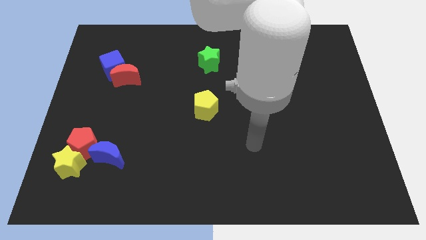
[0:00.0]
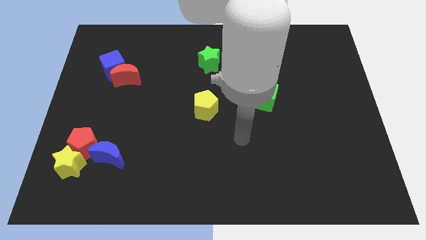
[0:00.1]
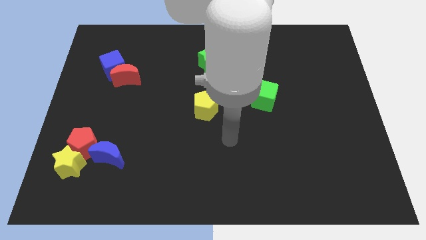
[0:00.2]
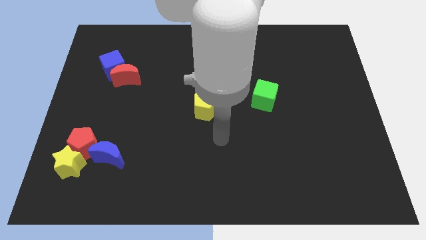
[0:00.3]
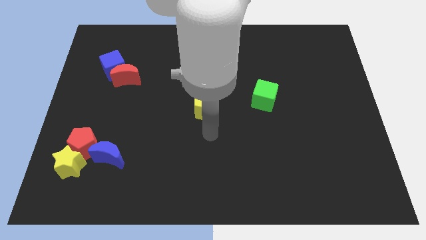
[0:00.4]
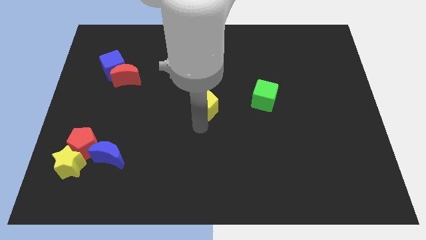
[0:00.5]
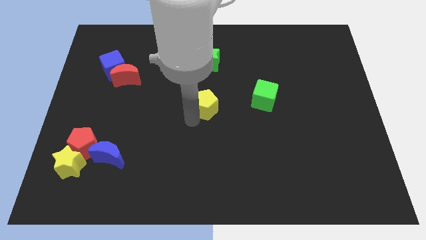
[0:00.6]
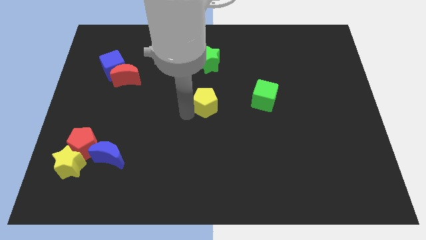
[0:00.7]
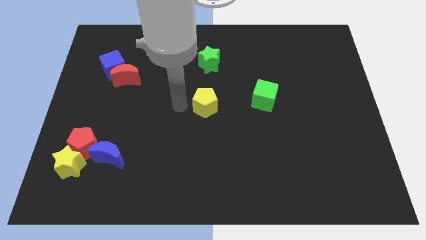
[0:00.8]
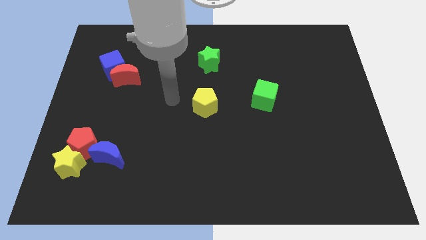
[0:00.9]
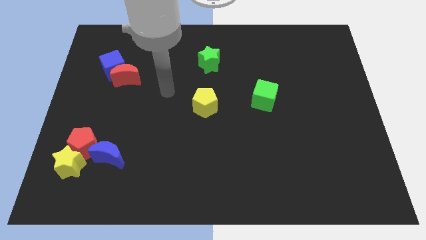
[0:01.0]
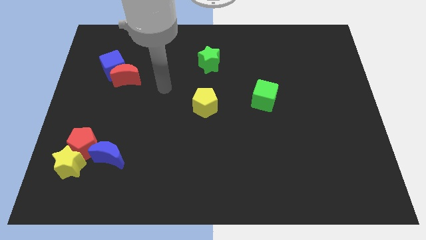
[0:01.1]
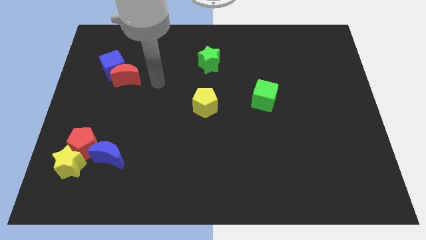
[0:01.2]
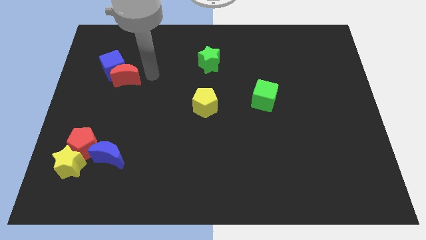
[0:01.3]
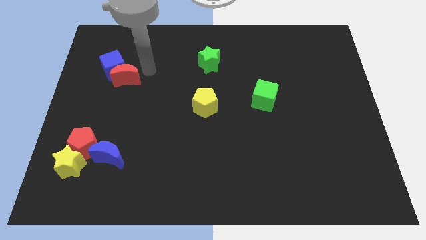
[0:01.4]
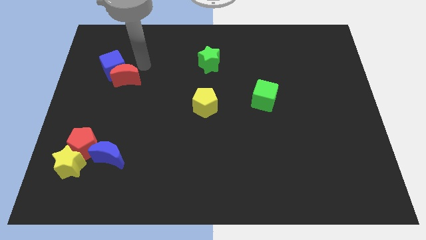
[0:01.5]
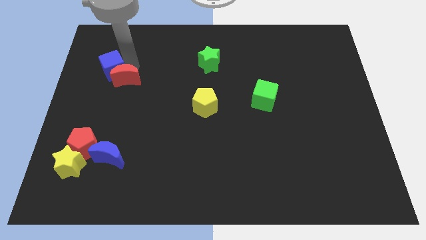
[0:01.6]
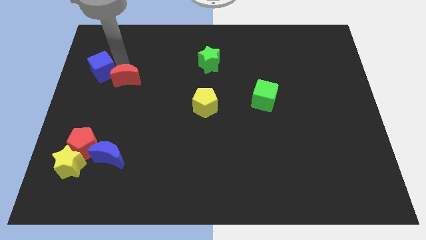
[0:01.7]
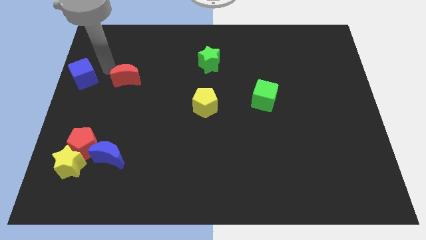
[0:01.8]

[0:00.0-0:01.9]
move the red moon away from the blue cube

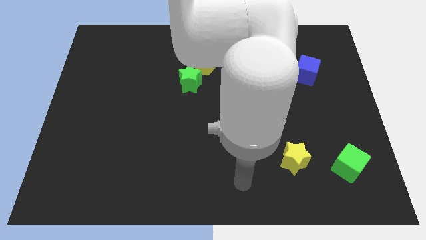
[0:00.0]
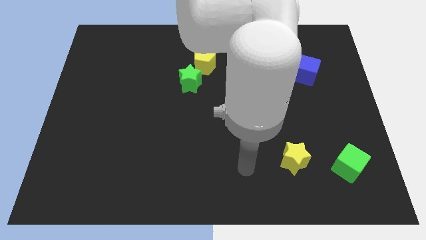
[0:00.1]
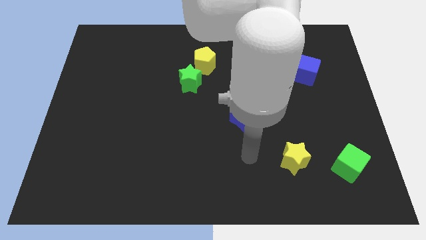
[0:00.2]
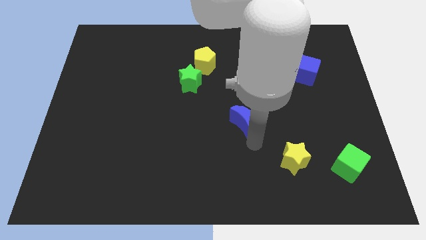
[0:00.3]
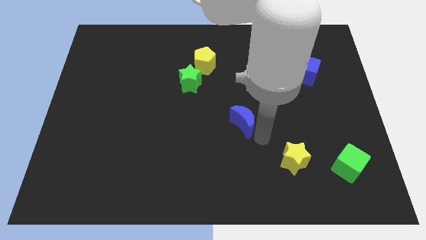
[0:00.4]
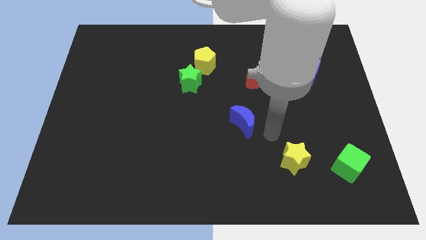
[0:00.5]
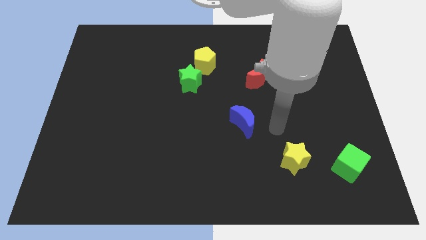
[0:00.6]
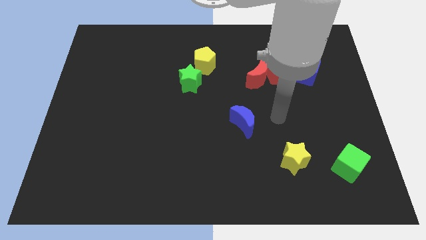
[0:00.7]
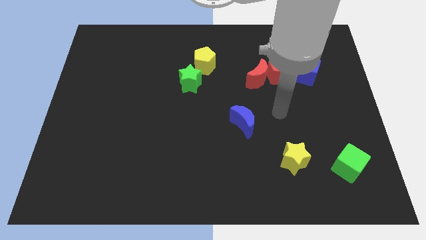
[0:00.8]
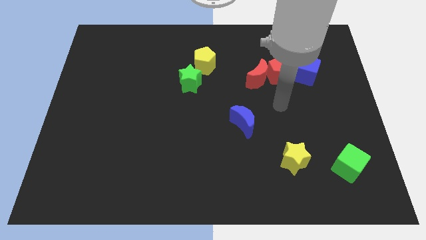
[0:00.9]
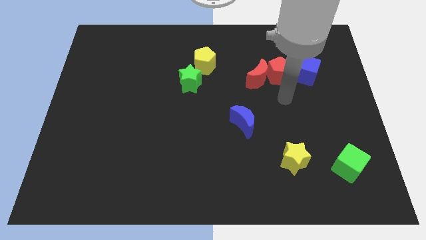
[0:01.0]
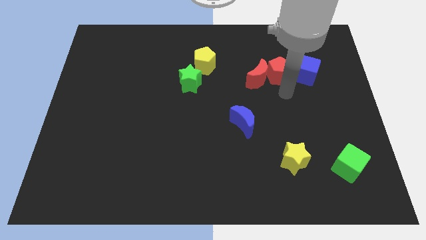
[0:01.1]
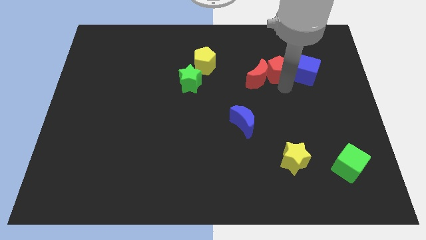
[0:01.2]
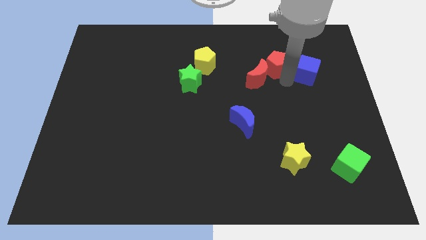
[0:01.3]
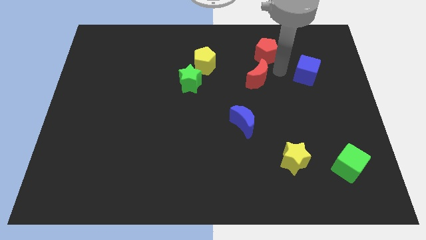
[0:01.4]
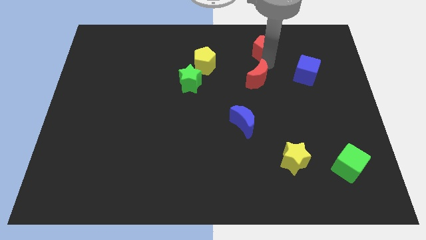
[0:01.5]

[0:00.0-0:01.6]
separate the red moon from the red pentagon

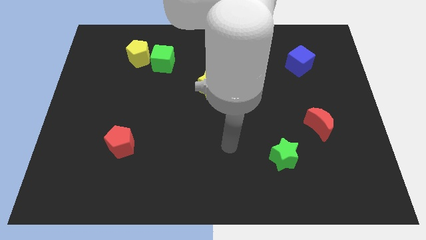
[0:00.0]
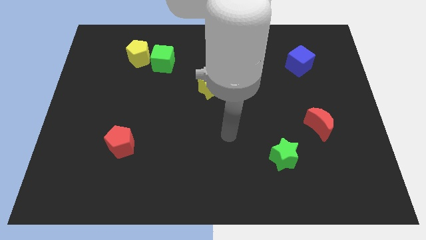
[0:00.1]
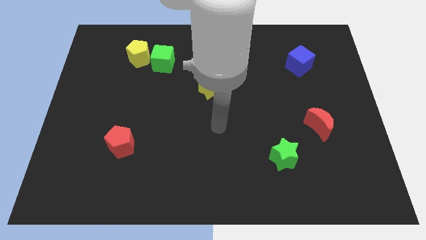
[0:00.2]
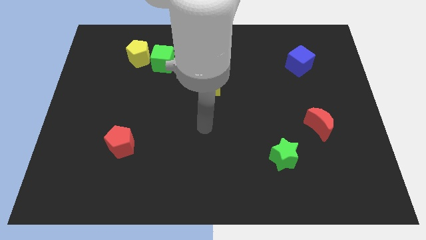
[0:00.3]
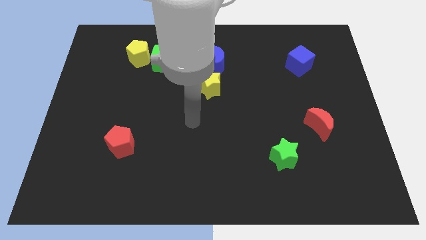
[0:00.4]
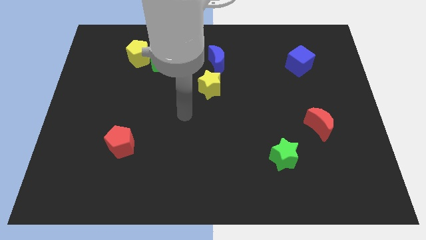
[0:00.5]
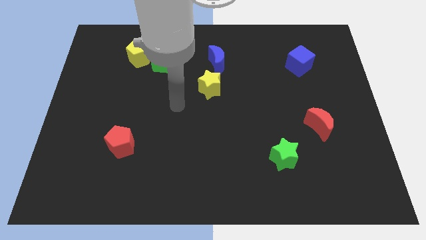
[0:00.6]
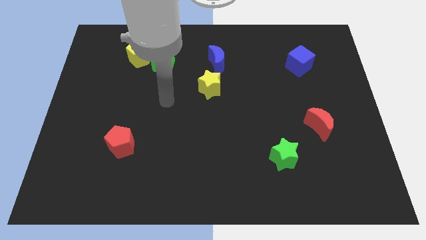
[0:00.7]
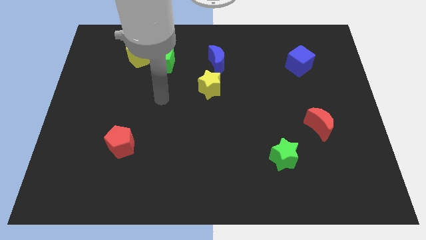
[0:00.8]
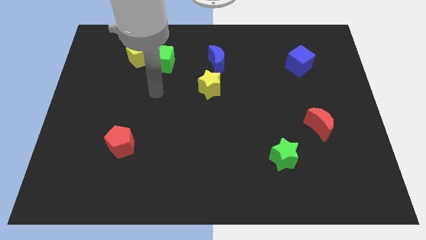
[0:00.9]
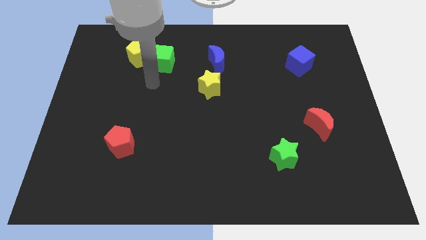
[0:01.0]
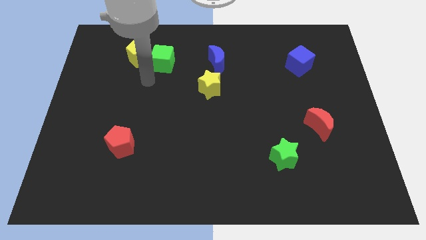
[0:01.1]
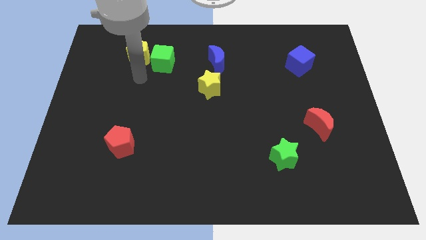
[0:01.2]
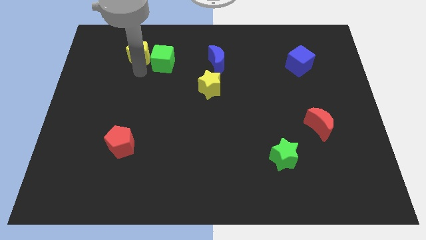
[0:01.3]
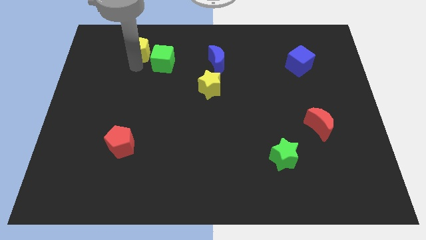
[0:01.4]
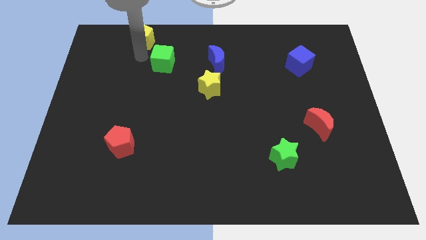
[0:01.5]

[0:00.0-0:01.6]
move the green cube away from the yellow pentagon

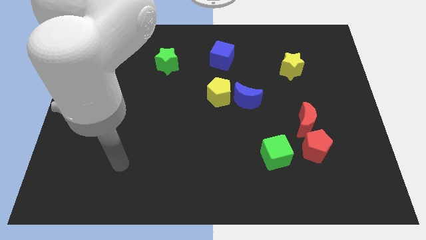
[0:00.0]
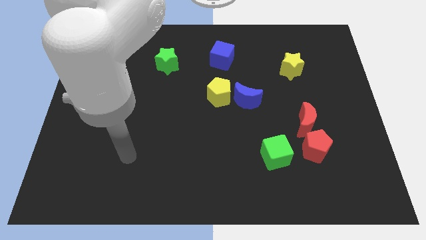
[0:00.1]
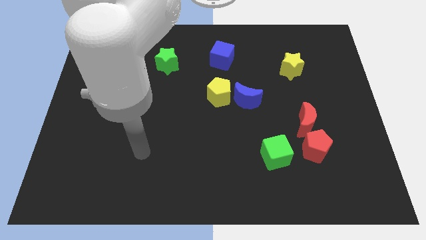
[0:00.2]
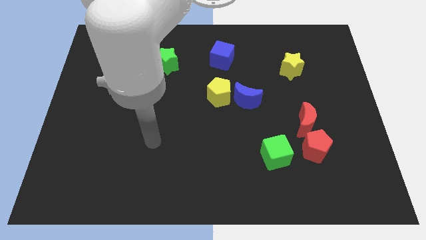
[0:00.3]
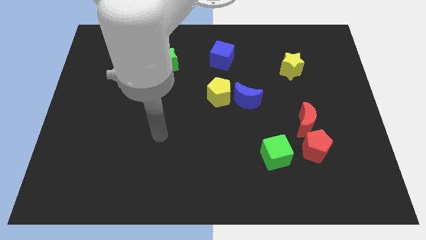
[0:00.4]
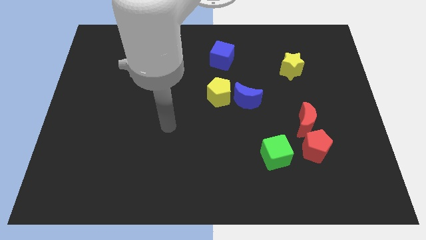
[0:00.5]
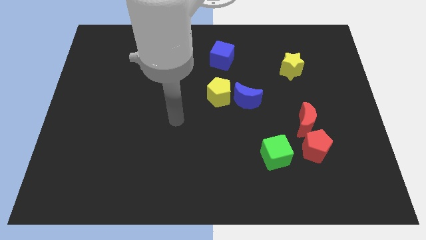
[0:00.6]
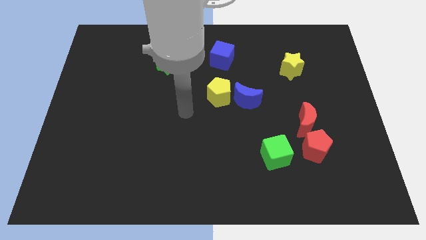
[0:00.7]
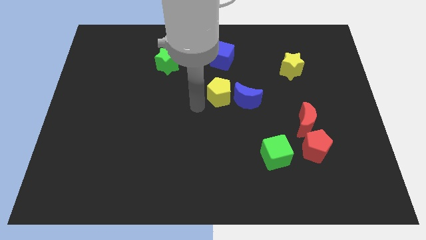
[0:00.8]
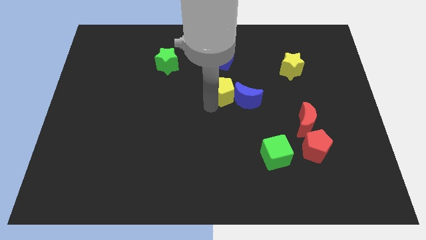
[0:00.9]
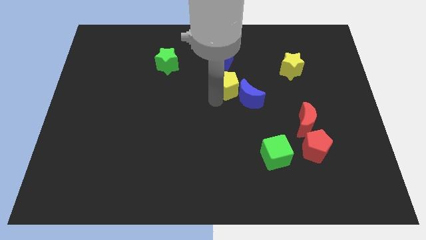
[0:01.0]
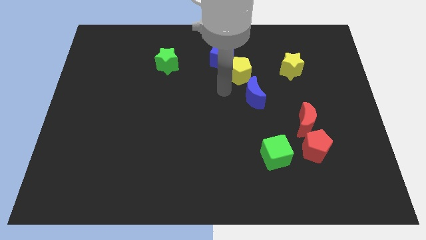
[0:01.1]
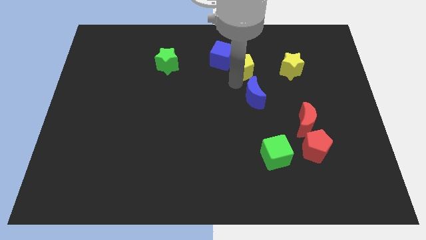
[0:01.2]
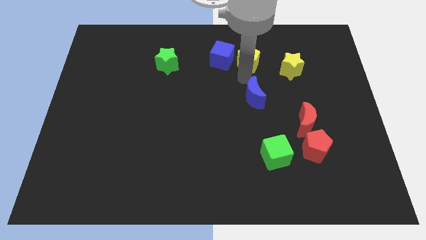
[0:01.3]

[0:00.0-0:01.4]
separate the blue moon from the yellow pentagon

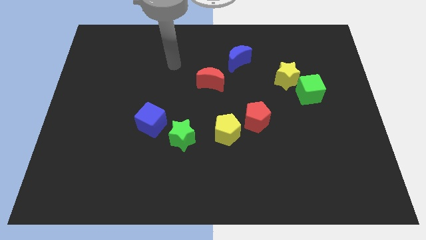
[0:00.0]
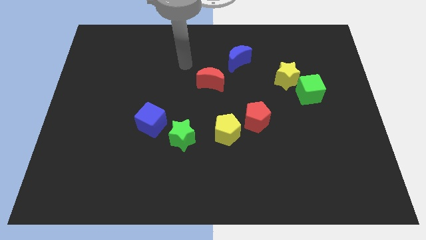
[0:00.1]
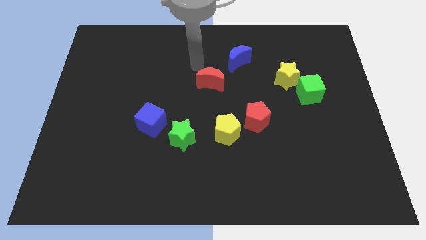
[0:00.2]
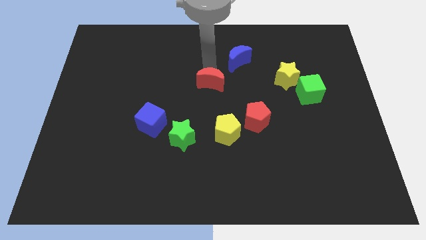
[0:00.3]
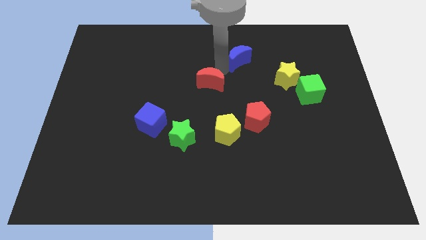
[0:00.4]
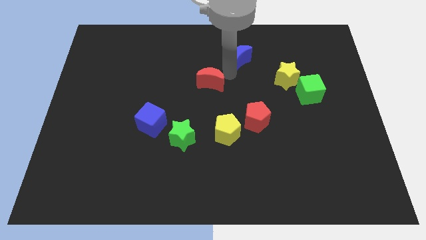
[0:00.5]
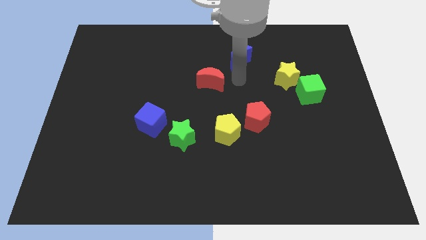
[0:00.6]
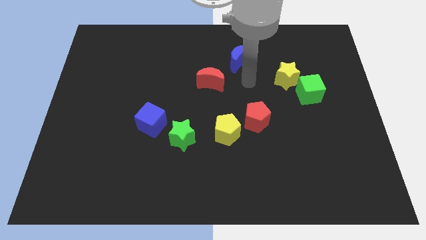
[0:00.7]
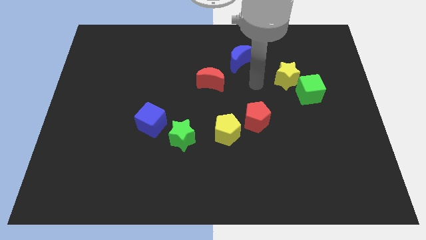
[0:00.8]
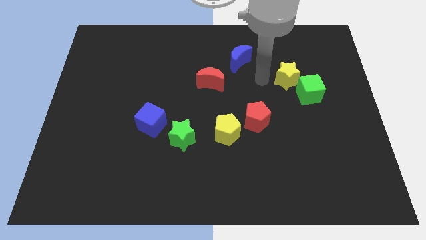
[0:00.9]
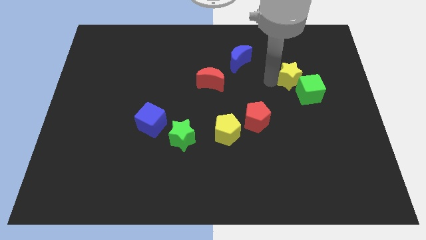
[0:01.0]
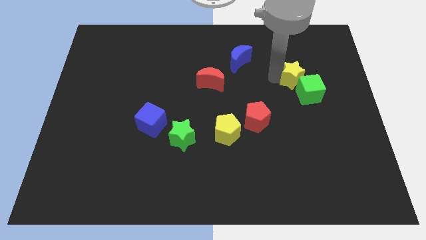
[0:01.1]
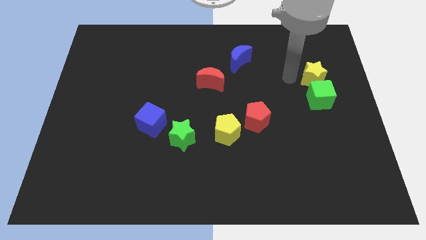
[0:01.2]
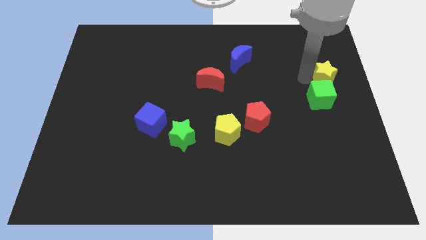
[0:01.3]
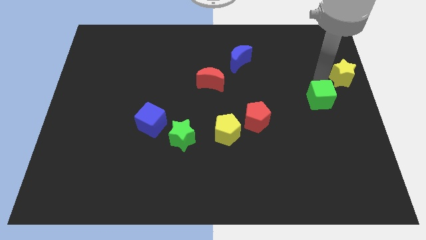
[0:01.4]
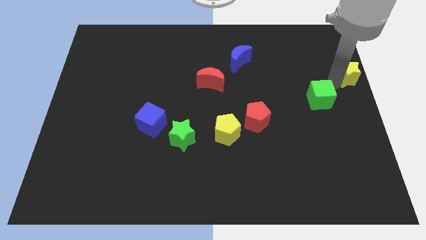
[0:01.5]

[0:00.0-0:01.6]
pull the green cube apart from the yellow star

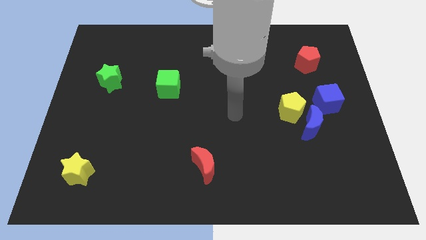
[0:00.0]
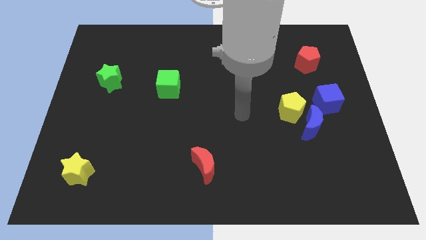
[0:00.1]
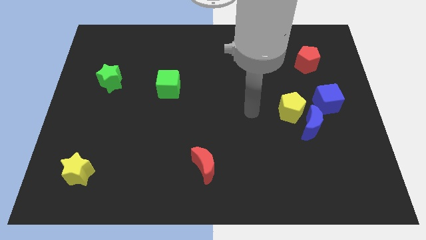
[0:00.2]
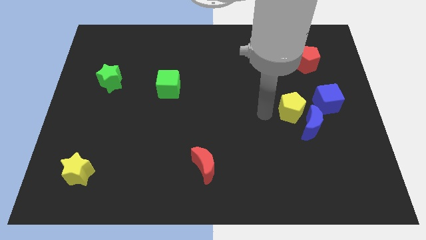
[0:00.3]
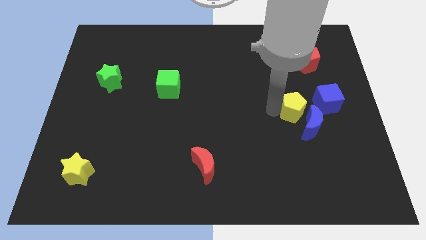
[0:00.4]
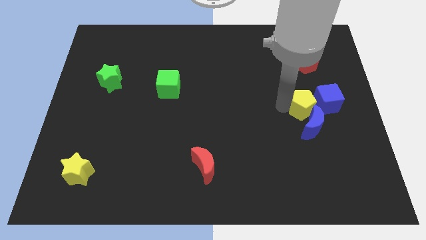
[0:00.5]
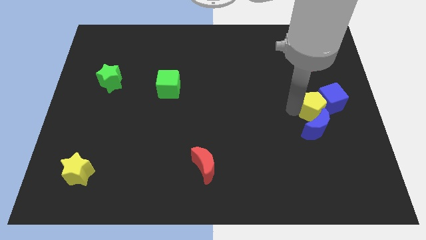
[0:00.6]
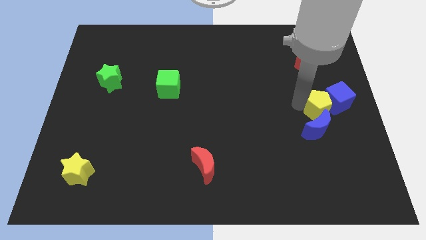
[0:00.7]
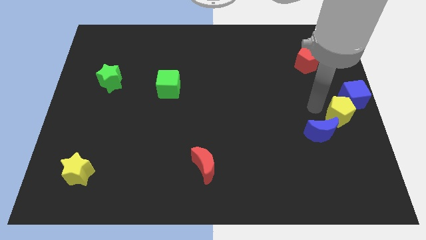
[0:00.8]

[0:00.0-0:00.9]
move the blue moon away from the yellow pentagon and blue cube

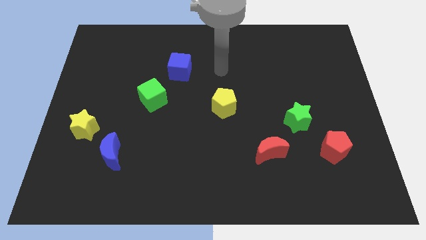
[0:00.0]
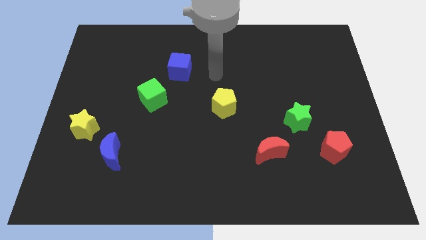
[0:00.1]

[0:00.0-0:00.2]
separate the blue moon from the yellow star

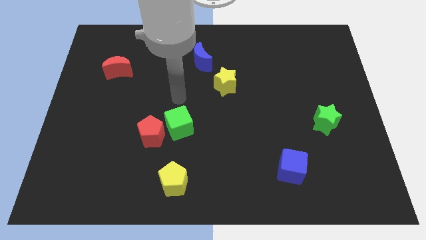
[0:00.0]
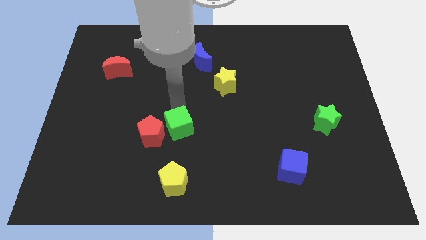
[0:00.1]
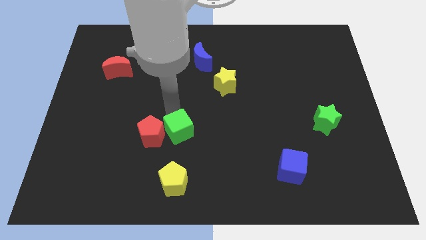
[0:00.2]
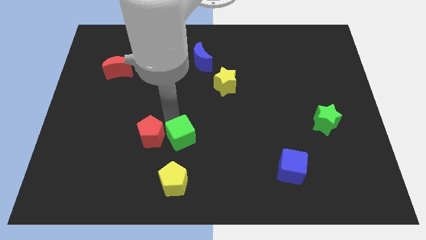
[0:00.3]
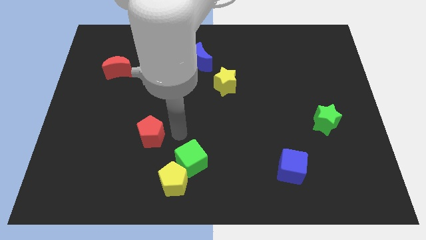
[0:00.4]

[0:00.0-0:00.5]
separate the red pentagon from the green cube
